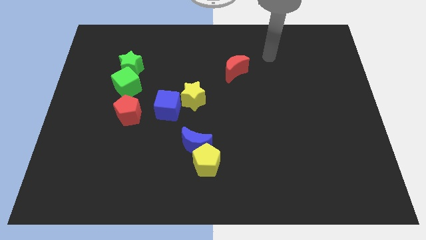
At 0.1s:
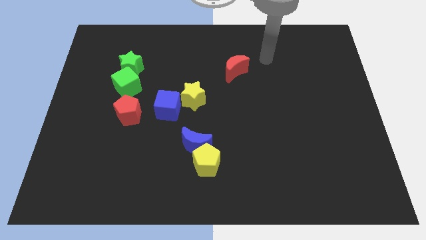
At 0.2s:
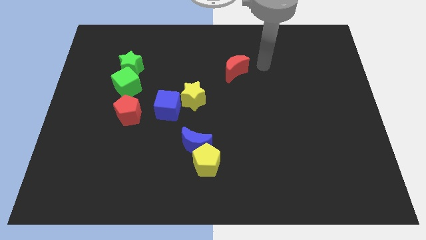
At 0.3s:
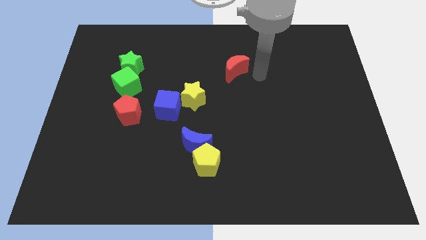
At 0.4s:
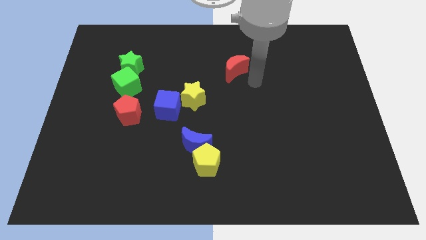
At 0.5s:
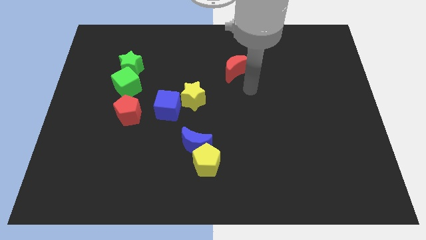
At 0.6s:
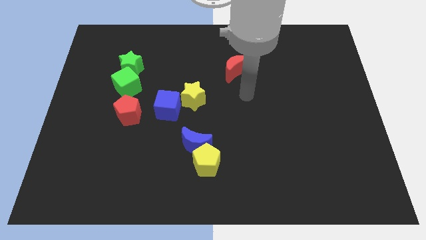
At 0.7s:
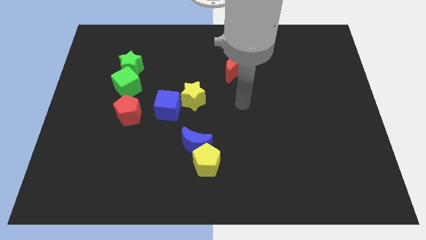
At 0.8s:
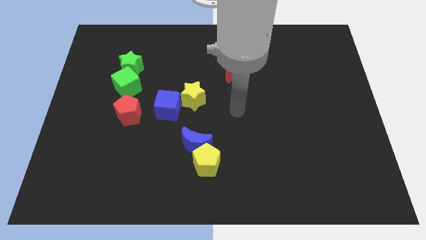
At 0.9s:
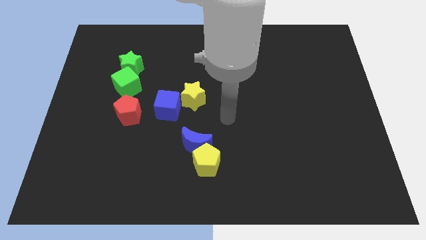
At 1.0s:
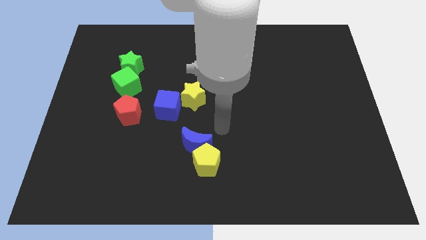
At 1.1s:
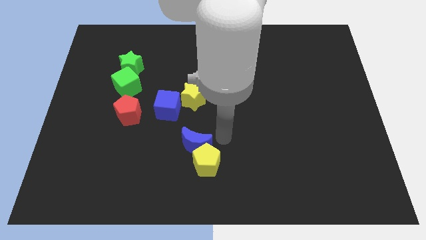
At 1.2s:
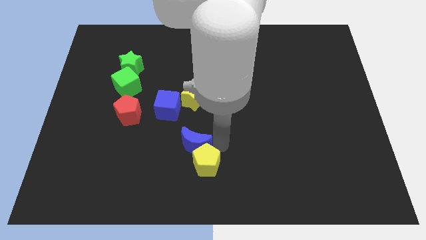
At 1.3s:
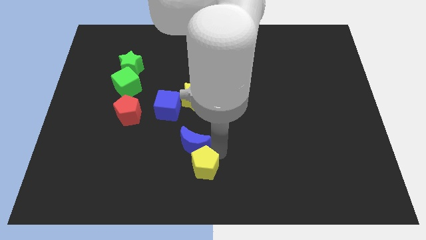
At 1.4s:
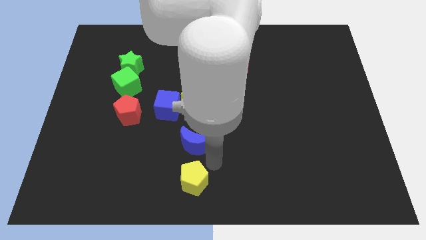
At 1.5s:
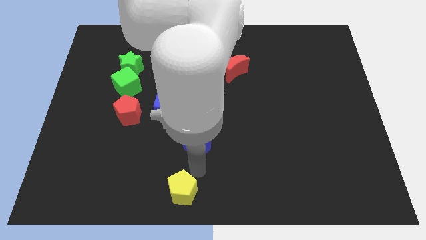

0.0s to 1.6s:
pull the blue moon apart from the yellow pentagon

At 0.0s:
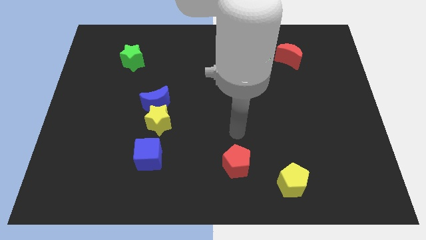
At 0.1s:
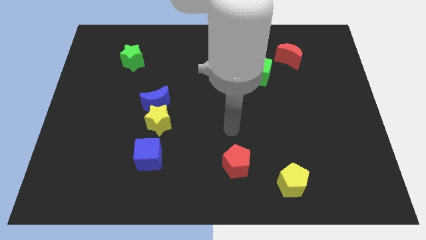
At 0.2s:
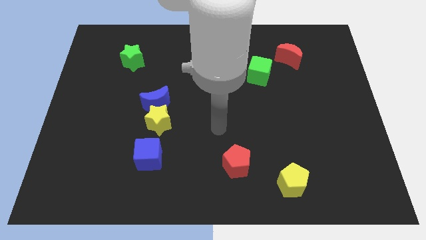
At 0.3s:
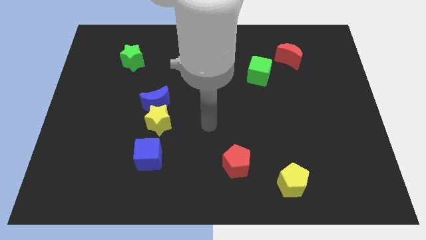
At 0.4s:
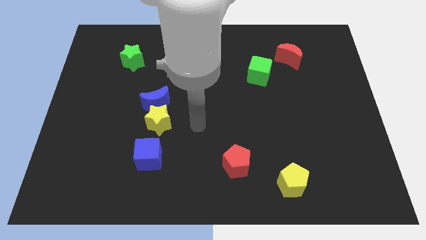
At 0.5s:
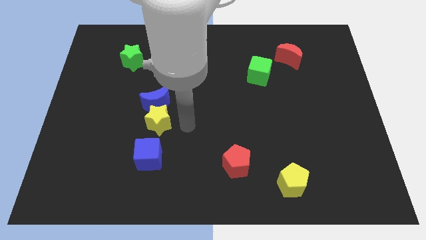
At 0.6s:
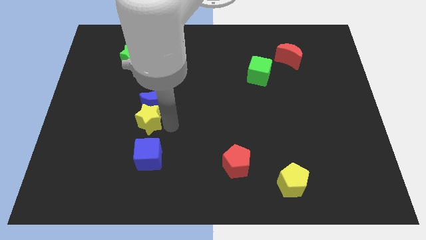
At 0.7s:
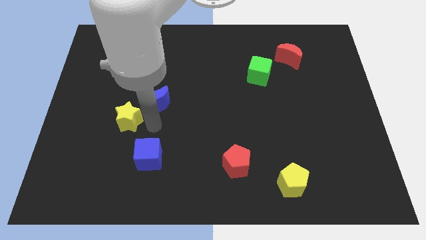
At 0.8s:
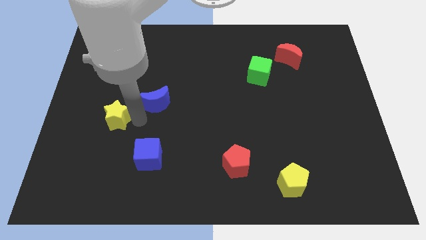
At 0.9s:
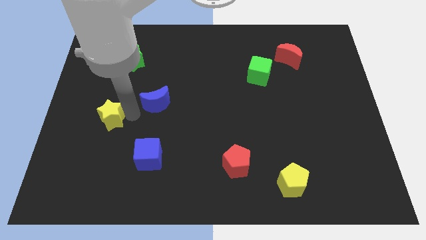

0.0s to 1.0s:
pull the blue moon apart from the yellow star

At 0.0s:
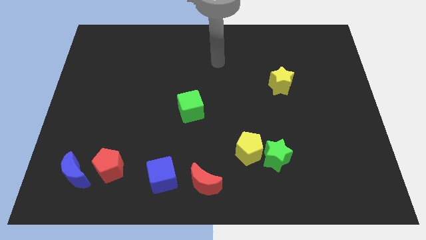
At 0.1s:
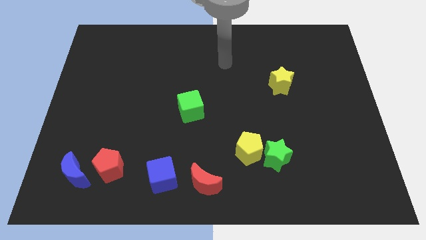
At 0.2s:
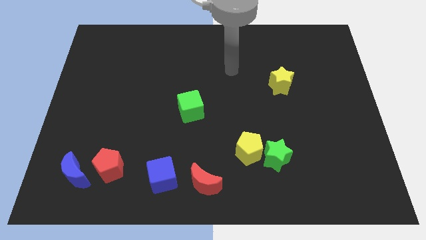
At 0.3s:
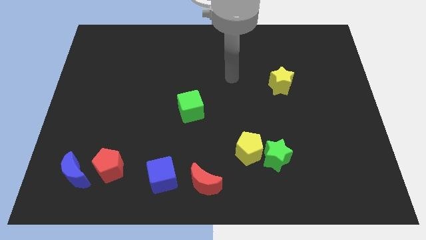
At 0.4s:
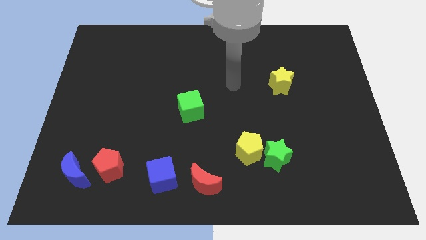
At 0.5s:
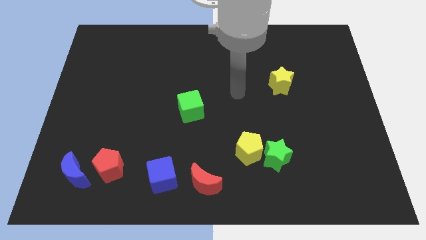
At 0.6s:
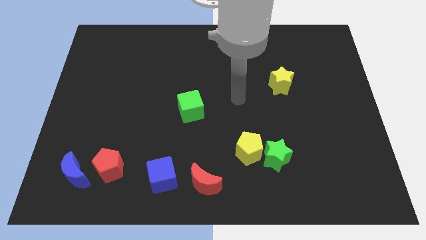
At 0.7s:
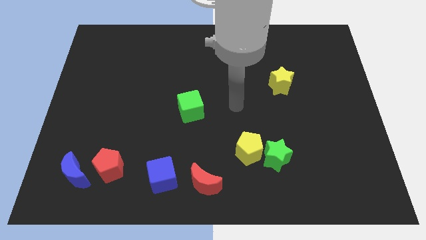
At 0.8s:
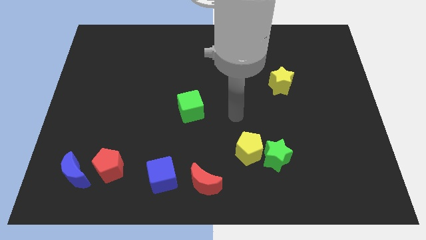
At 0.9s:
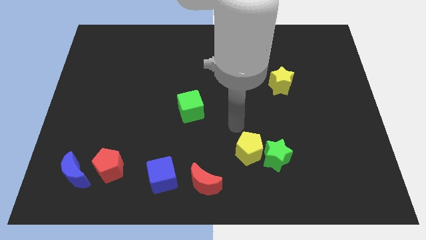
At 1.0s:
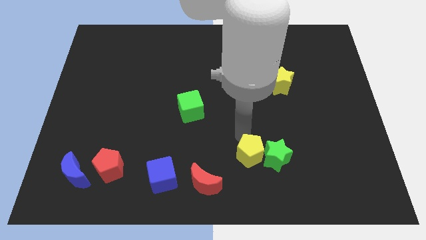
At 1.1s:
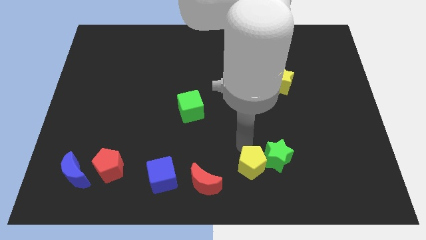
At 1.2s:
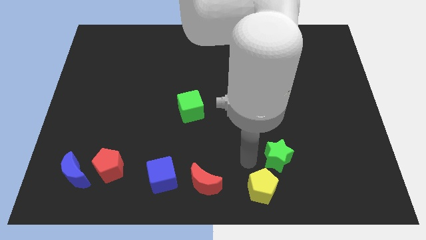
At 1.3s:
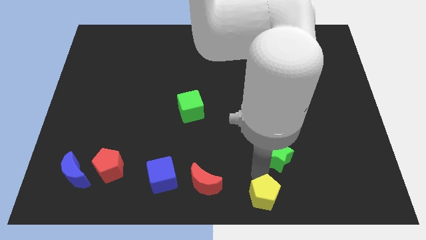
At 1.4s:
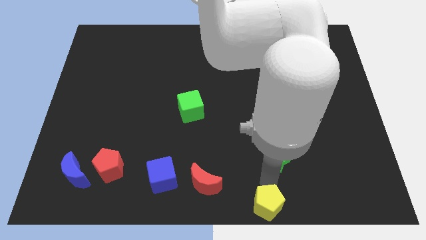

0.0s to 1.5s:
separate the green star from the yellow pentagon

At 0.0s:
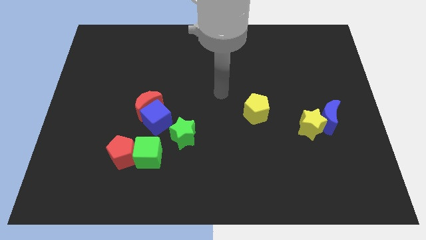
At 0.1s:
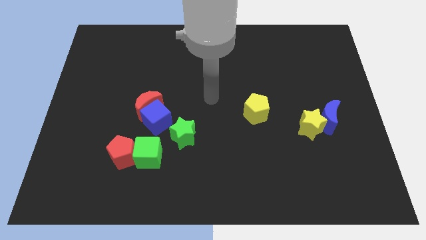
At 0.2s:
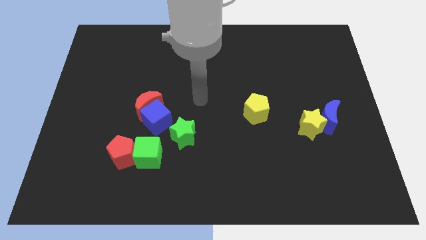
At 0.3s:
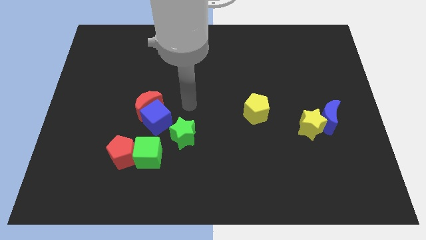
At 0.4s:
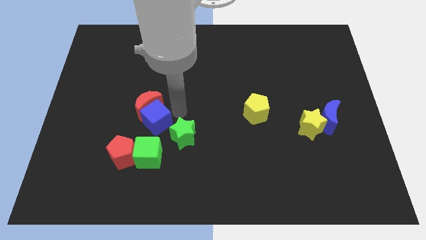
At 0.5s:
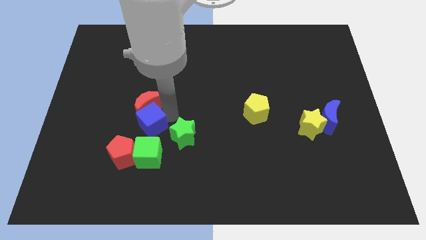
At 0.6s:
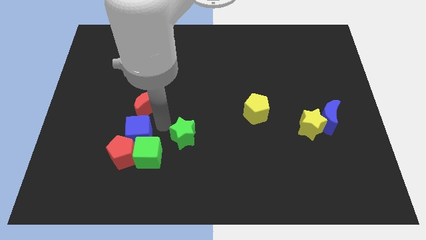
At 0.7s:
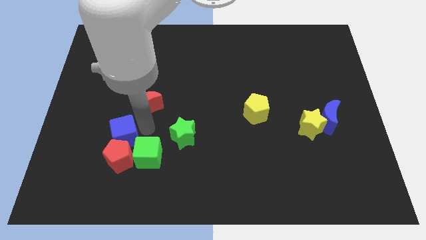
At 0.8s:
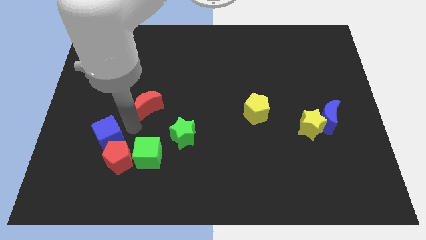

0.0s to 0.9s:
separate the red moon from the blue cube

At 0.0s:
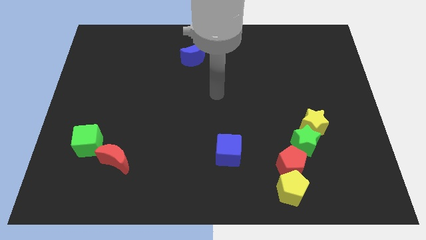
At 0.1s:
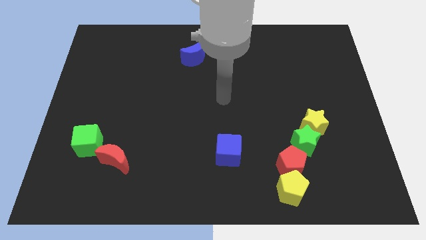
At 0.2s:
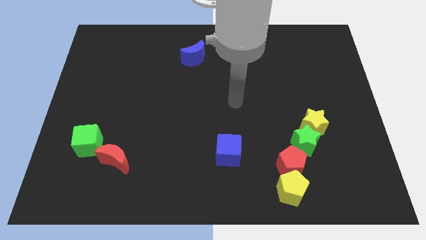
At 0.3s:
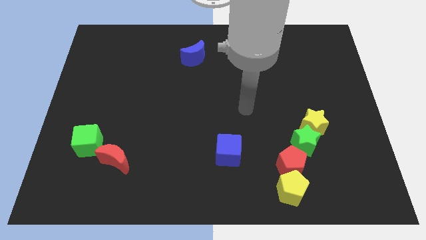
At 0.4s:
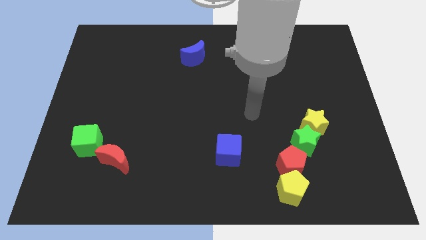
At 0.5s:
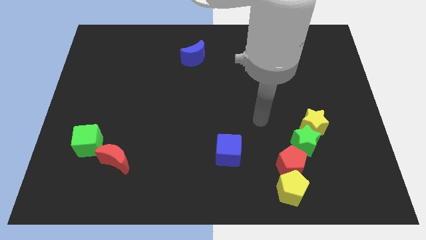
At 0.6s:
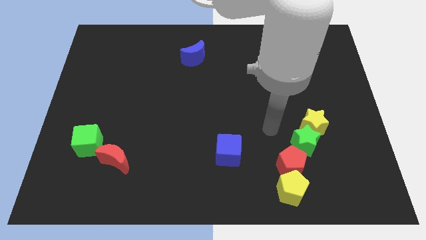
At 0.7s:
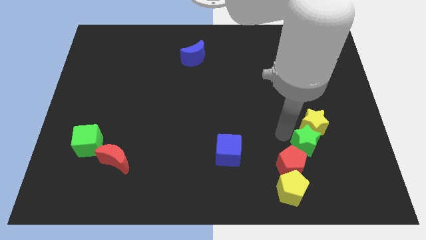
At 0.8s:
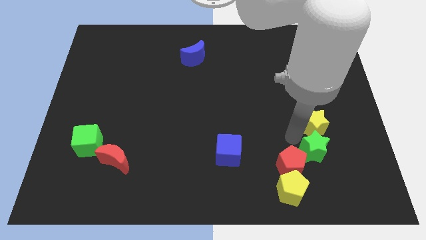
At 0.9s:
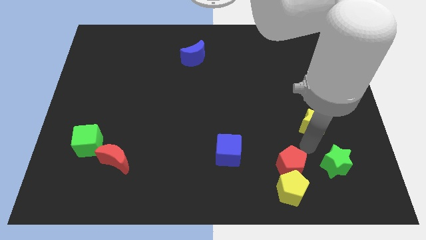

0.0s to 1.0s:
pull the yellow star apart from the green star

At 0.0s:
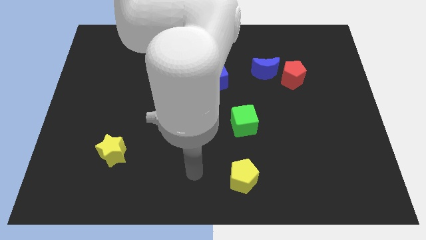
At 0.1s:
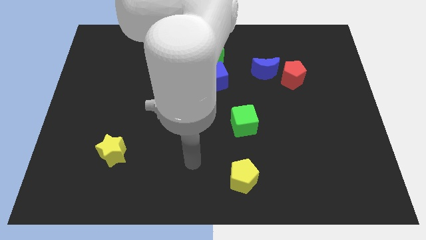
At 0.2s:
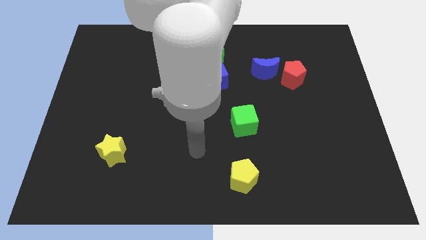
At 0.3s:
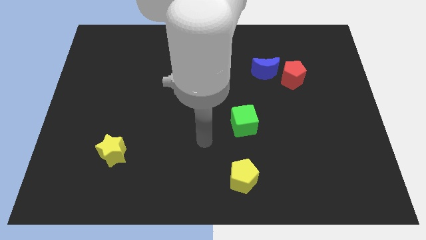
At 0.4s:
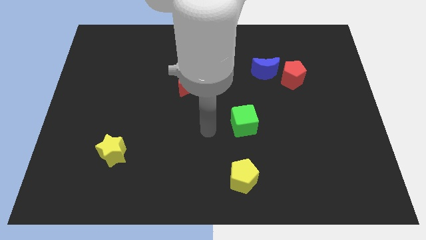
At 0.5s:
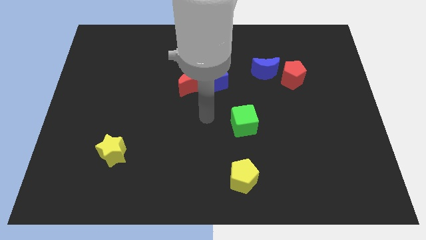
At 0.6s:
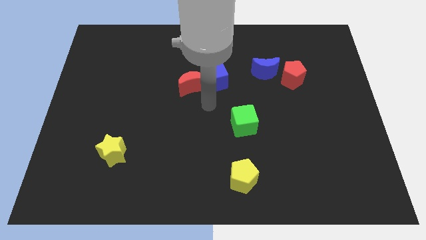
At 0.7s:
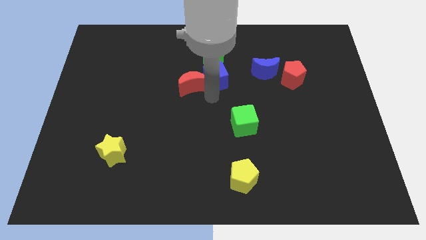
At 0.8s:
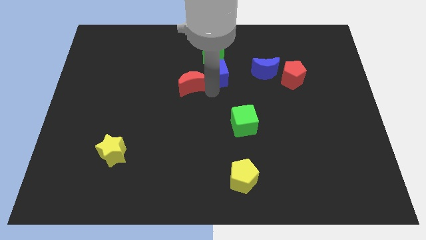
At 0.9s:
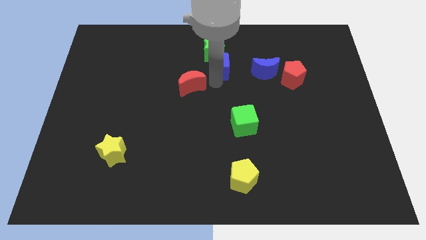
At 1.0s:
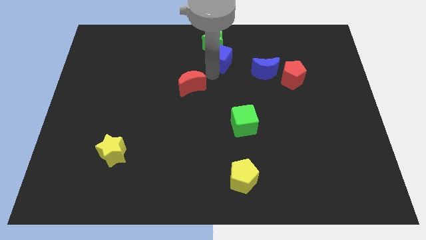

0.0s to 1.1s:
move the red moon away from the blue cube

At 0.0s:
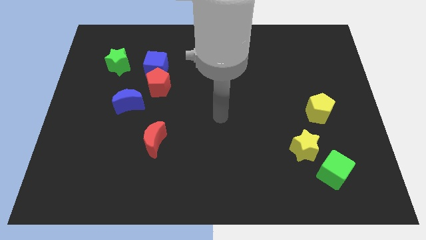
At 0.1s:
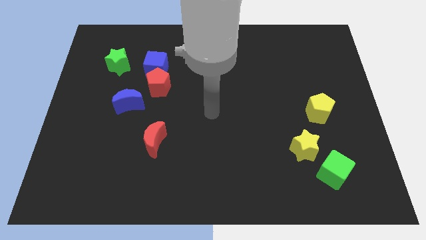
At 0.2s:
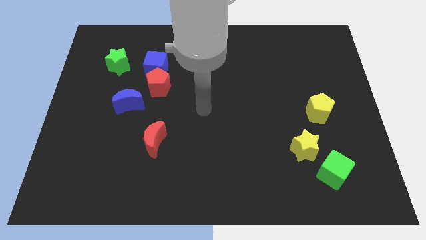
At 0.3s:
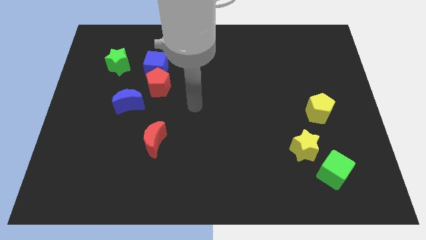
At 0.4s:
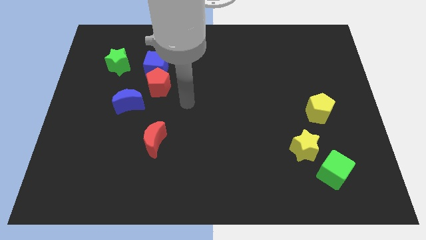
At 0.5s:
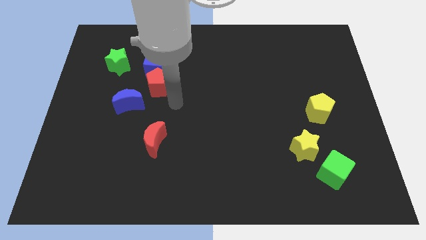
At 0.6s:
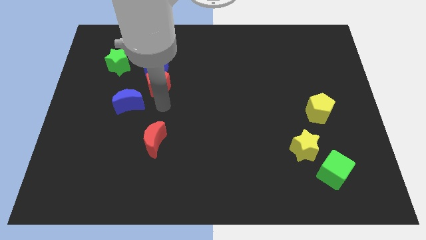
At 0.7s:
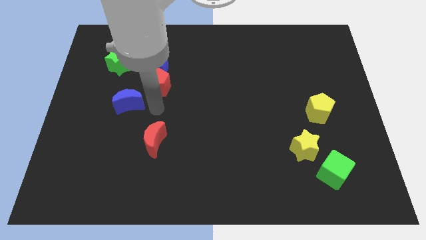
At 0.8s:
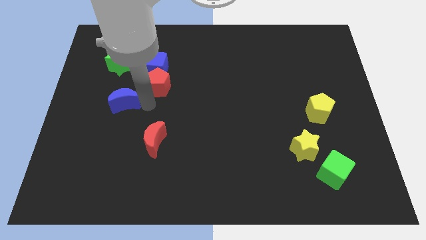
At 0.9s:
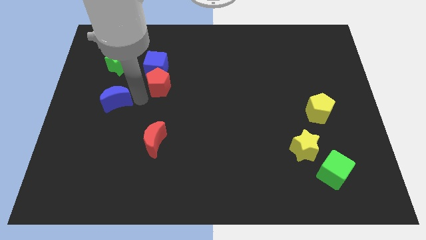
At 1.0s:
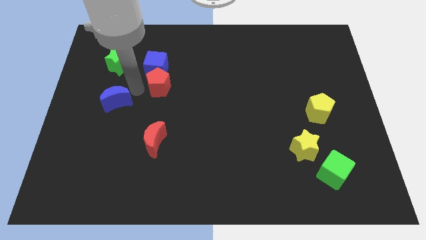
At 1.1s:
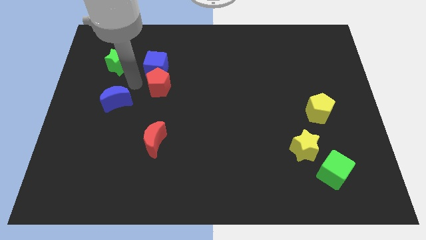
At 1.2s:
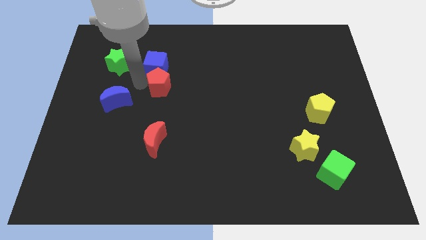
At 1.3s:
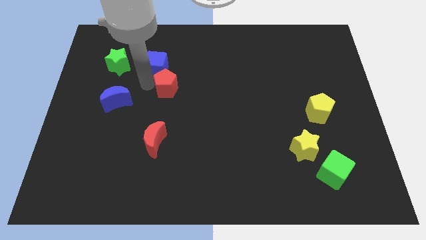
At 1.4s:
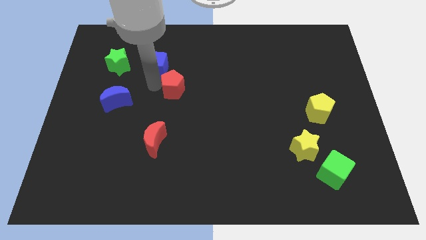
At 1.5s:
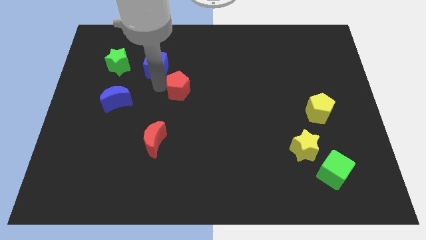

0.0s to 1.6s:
pull the red pentagon apart from the blue cube and blue moon

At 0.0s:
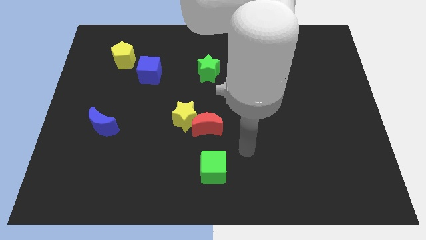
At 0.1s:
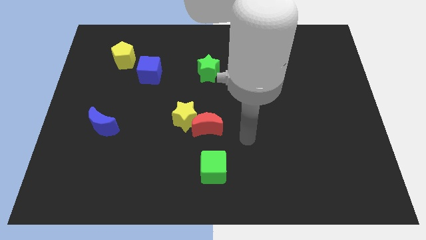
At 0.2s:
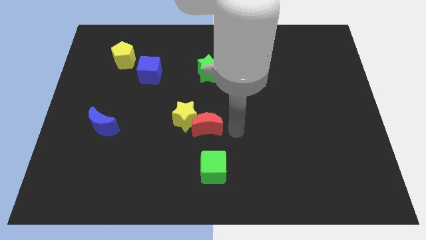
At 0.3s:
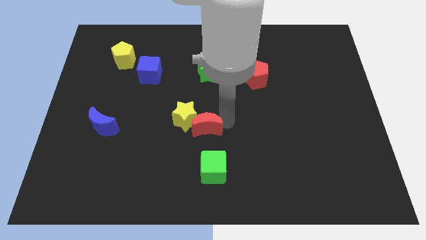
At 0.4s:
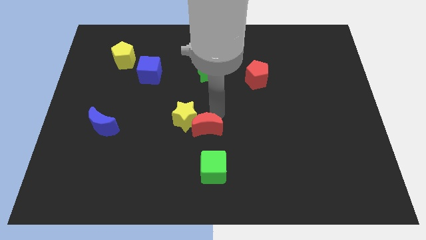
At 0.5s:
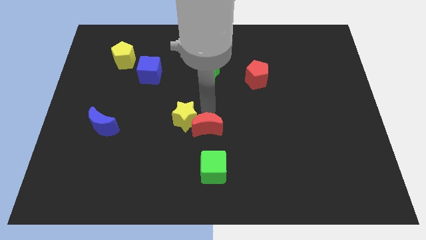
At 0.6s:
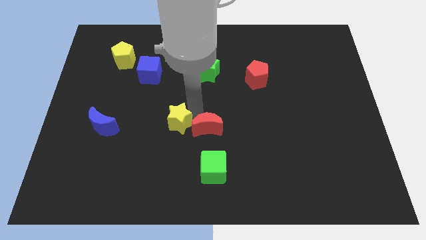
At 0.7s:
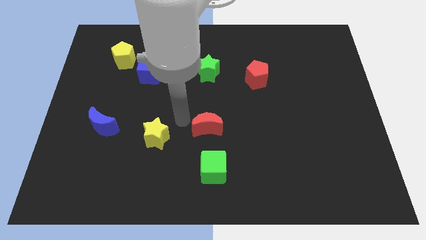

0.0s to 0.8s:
pull the red moon apart from the yellow star

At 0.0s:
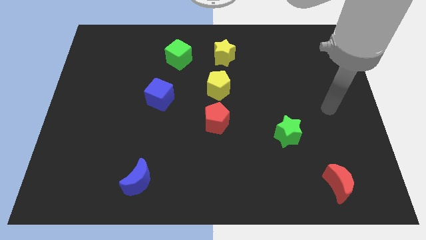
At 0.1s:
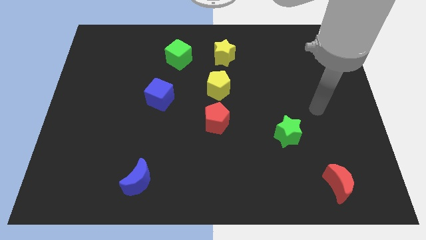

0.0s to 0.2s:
pull the red pentagon apart from the yellow pentagon
